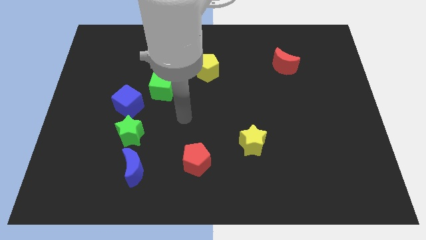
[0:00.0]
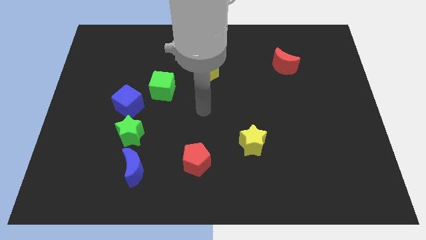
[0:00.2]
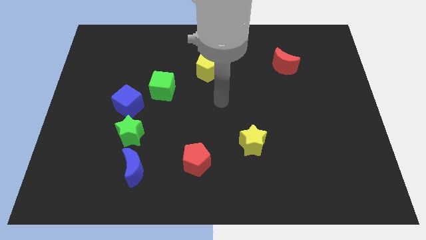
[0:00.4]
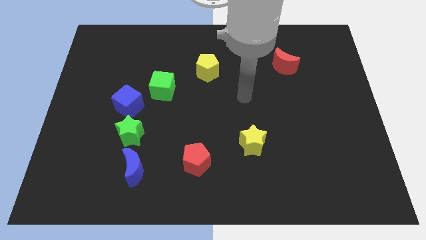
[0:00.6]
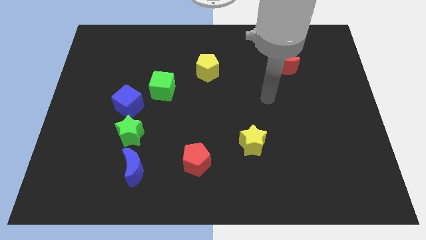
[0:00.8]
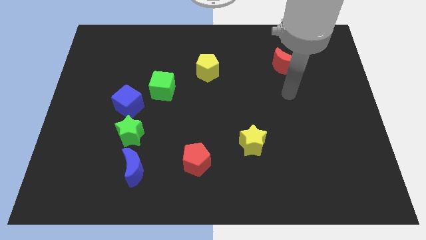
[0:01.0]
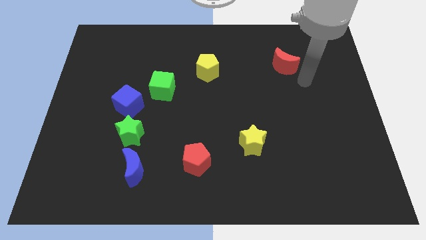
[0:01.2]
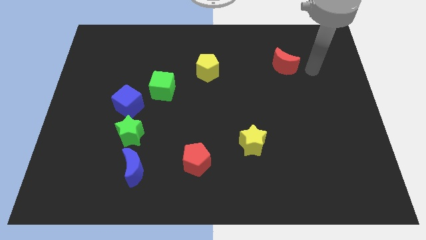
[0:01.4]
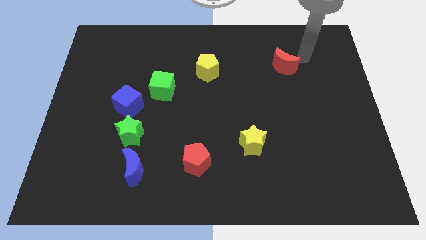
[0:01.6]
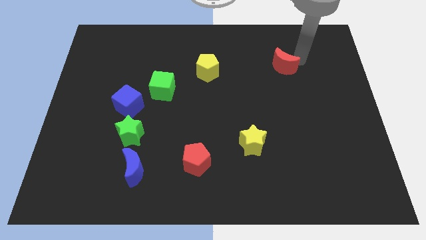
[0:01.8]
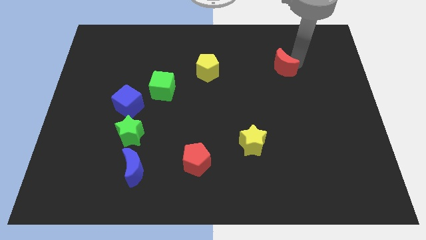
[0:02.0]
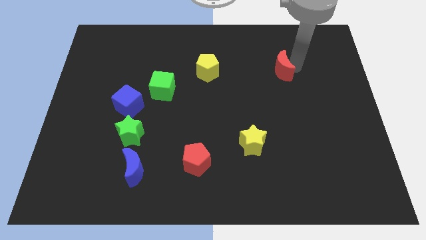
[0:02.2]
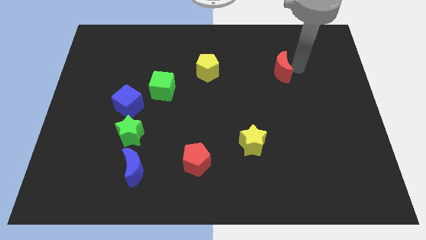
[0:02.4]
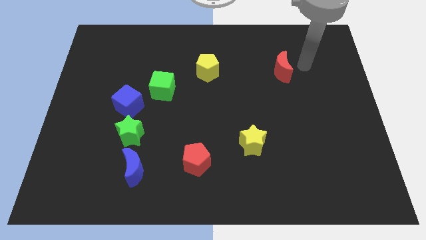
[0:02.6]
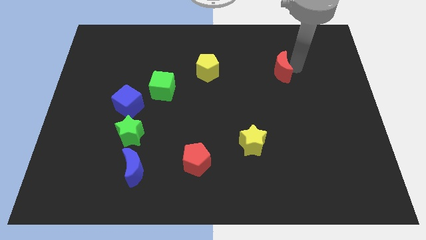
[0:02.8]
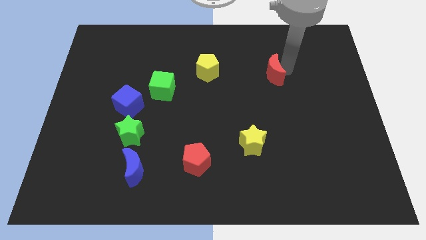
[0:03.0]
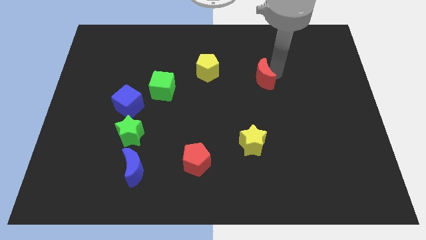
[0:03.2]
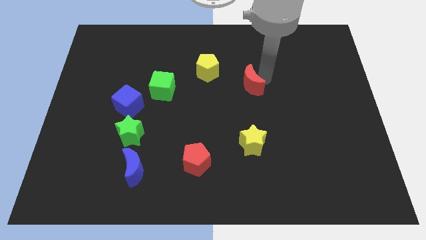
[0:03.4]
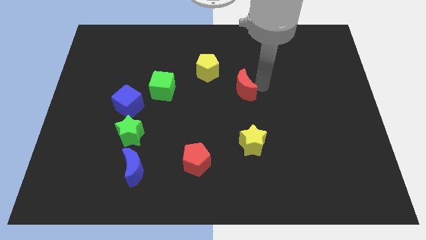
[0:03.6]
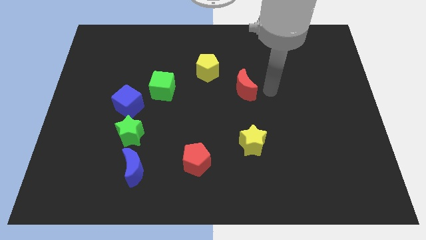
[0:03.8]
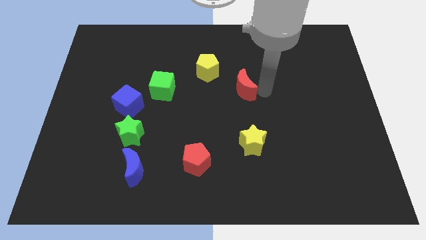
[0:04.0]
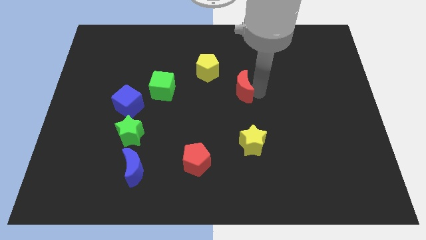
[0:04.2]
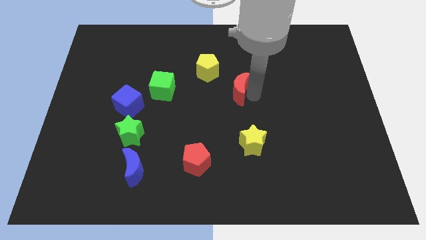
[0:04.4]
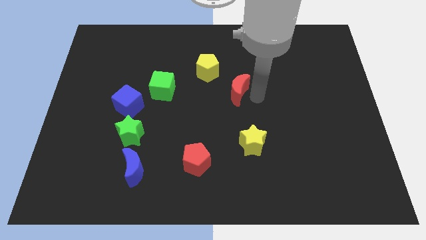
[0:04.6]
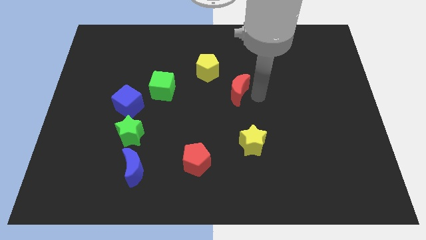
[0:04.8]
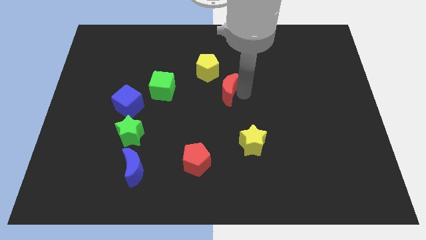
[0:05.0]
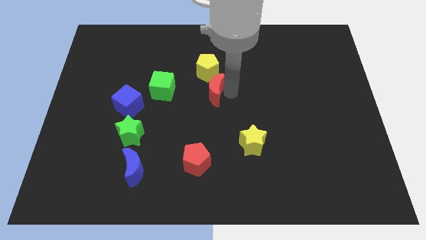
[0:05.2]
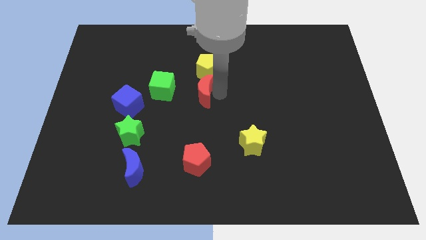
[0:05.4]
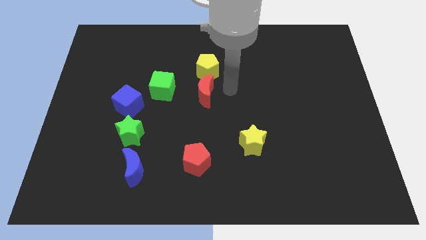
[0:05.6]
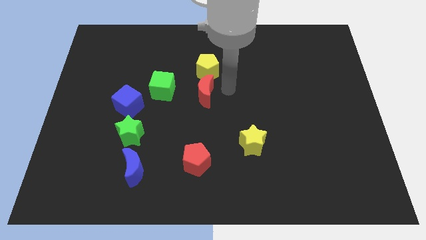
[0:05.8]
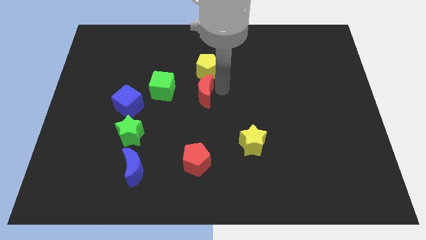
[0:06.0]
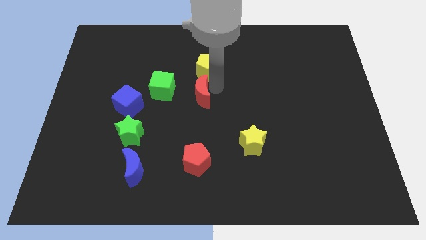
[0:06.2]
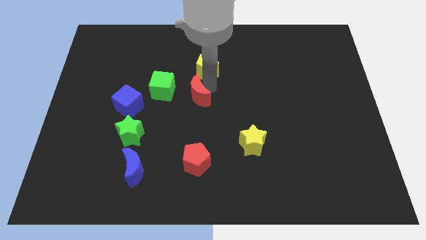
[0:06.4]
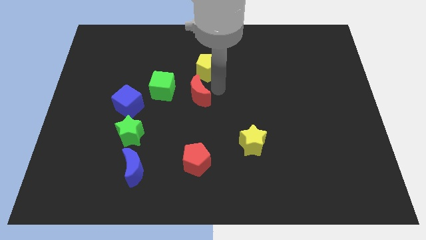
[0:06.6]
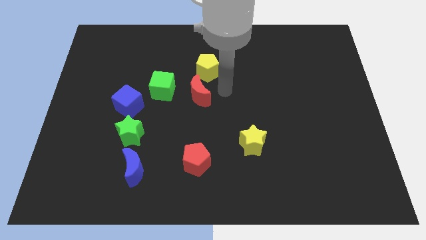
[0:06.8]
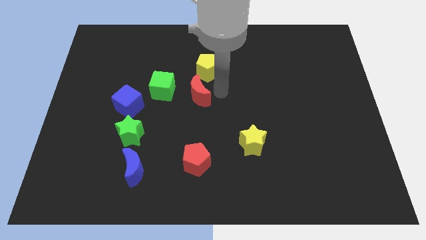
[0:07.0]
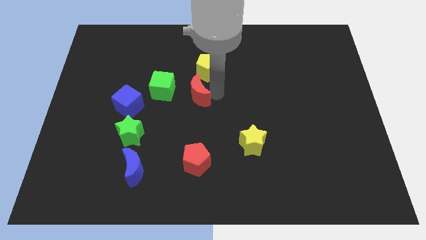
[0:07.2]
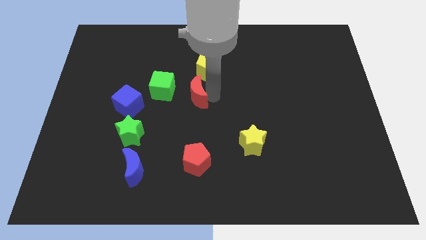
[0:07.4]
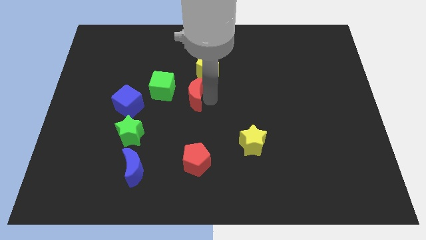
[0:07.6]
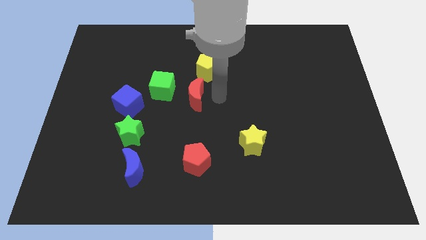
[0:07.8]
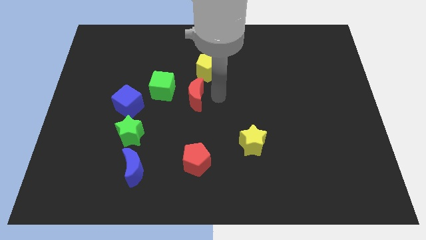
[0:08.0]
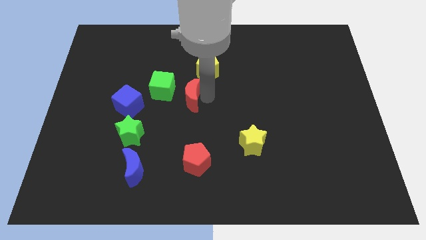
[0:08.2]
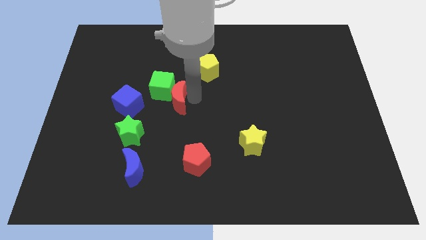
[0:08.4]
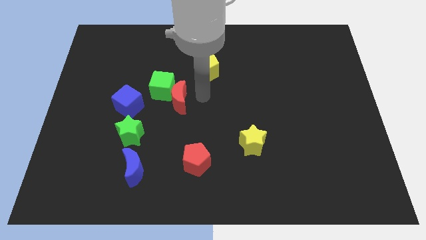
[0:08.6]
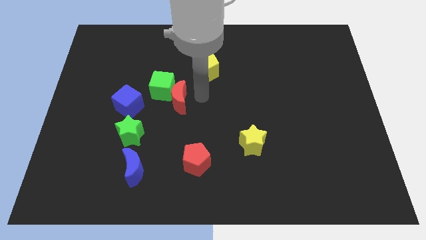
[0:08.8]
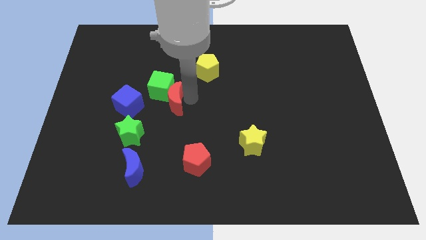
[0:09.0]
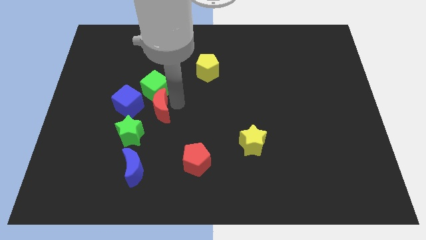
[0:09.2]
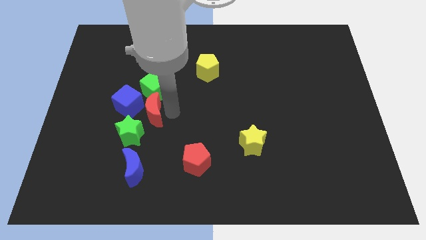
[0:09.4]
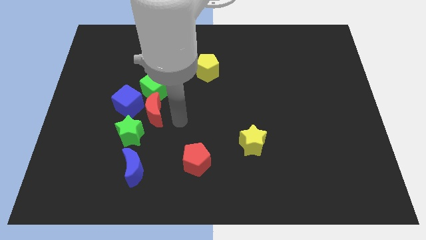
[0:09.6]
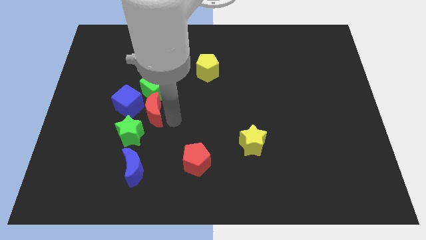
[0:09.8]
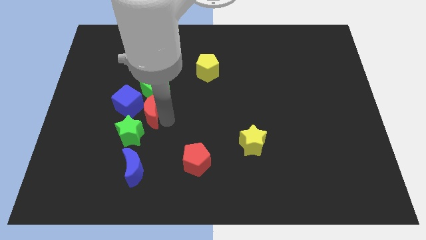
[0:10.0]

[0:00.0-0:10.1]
put the red moon to the blue cube

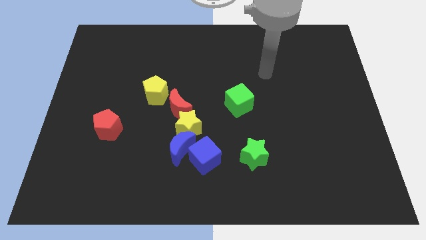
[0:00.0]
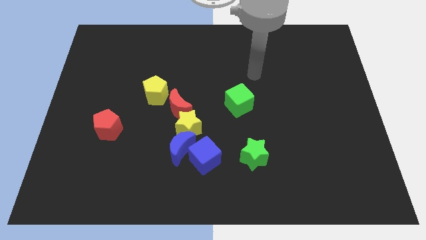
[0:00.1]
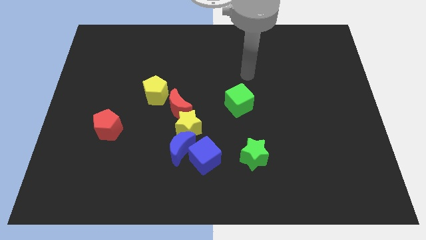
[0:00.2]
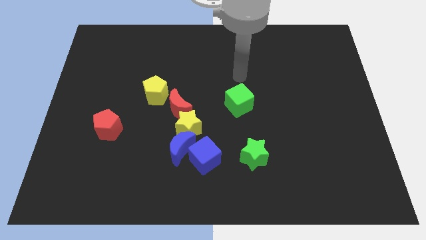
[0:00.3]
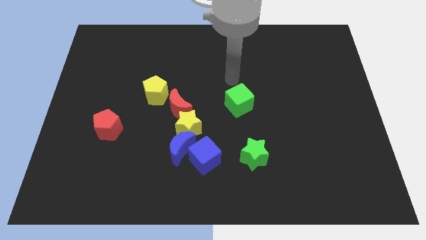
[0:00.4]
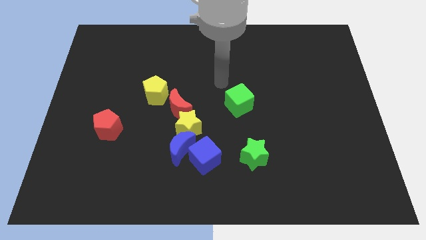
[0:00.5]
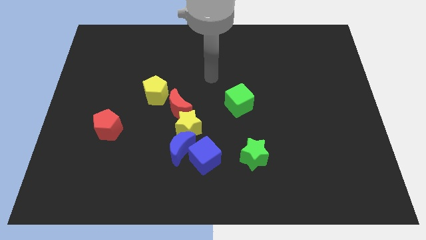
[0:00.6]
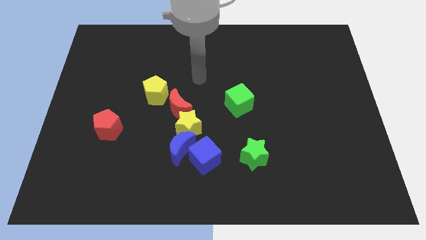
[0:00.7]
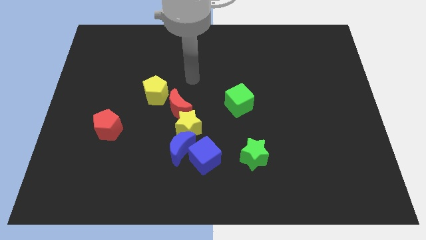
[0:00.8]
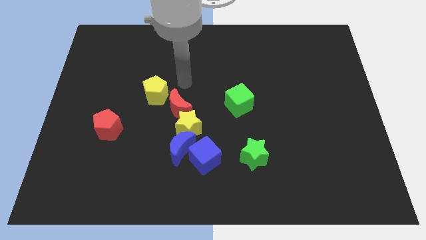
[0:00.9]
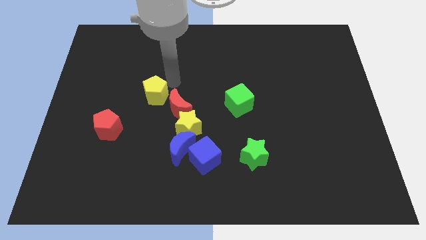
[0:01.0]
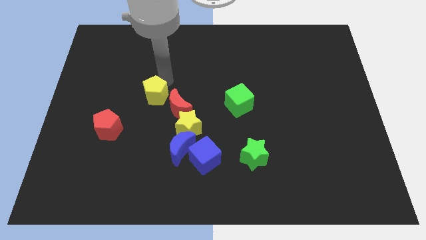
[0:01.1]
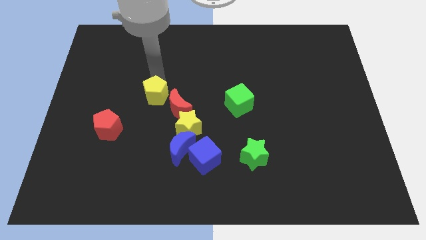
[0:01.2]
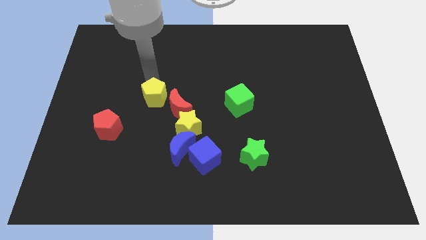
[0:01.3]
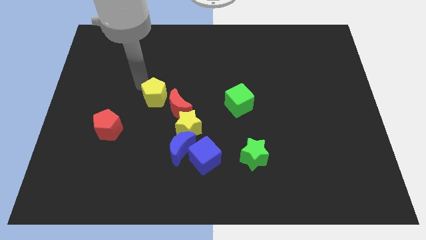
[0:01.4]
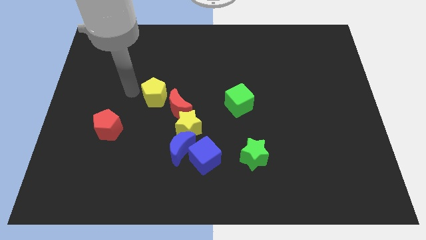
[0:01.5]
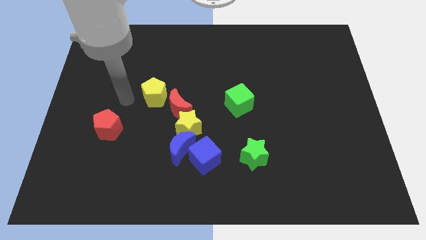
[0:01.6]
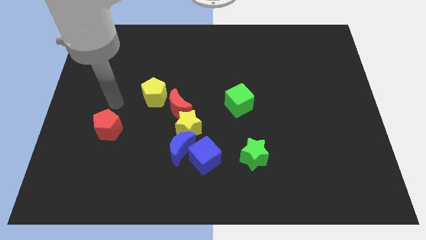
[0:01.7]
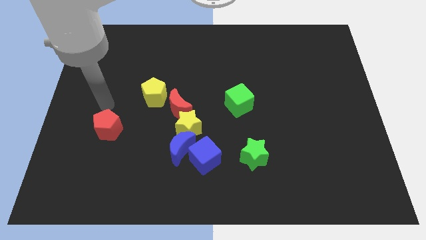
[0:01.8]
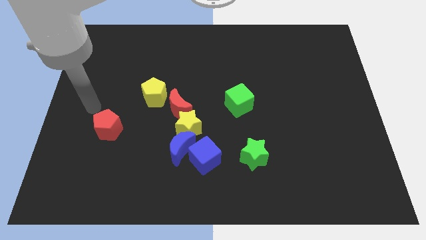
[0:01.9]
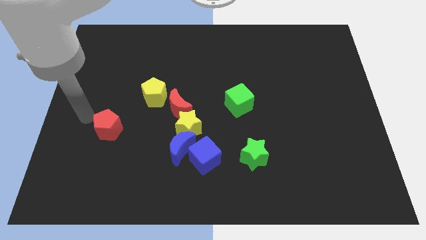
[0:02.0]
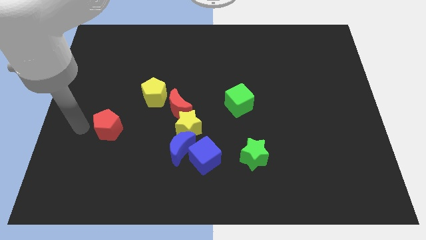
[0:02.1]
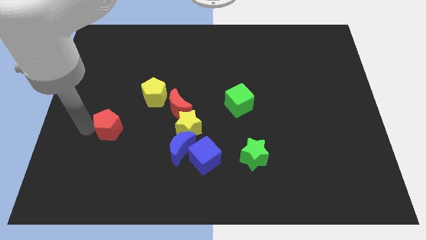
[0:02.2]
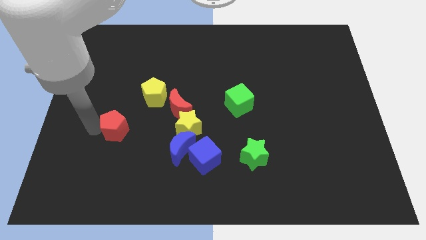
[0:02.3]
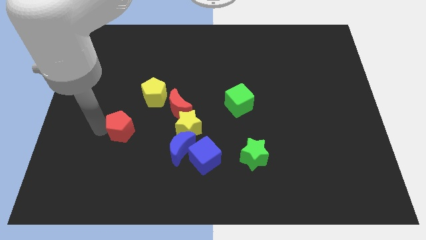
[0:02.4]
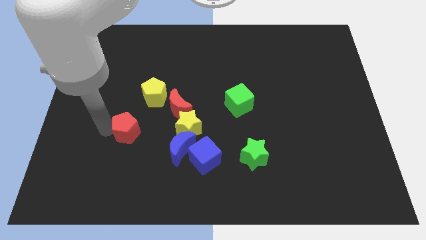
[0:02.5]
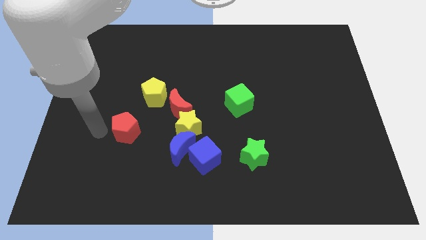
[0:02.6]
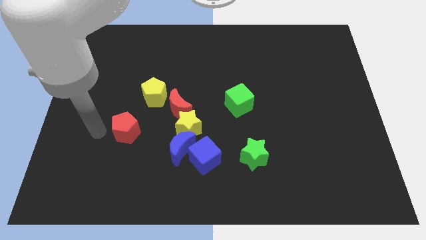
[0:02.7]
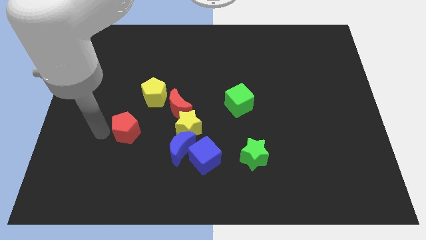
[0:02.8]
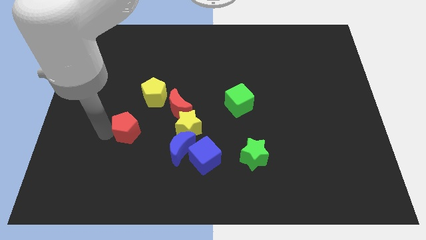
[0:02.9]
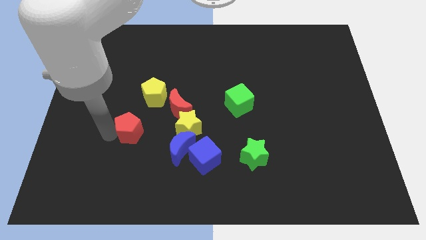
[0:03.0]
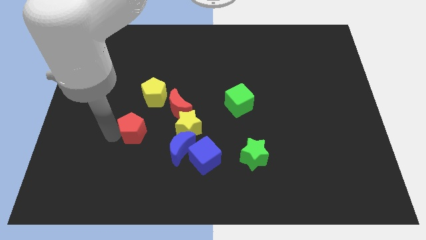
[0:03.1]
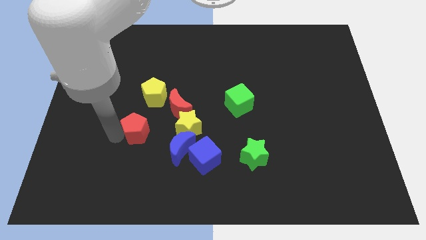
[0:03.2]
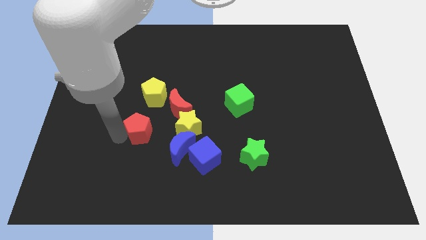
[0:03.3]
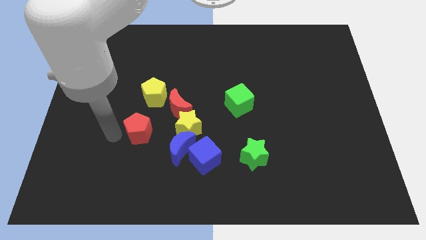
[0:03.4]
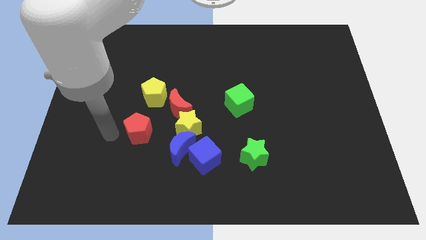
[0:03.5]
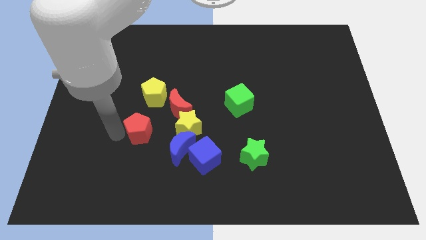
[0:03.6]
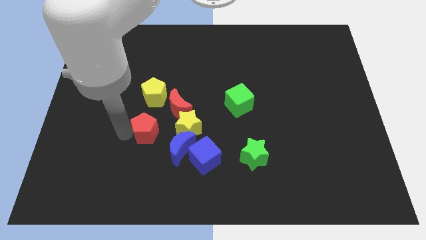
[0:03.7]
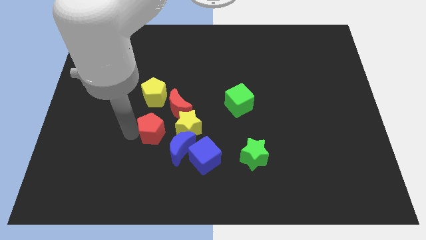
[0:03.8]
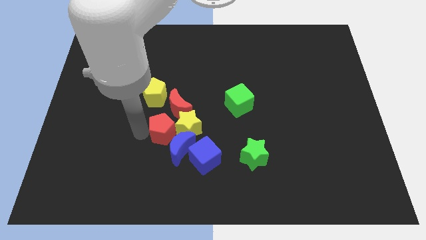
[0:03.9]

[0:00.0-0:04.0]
put the red pentagon close to the yellow star
